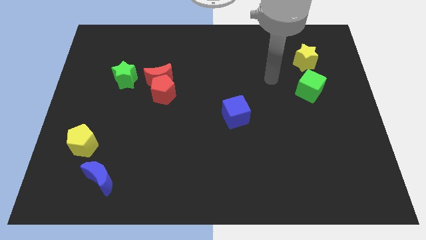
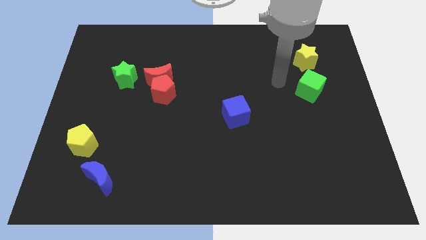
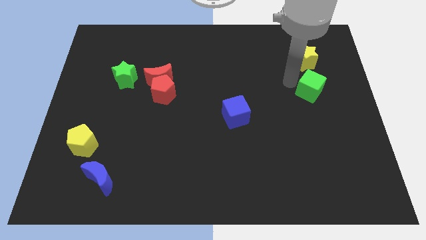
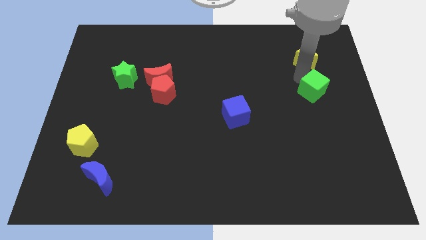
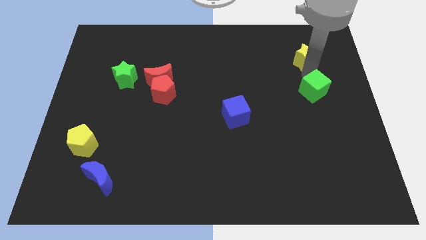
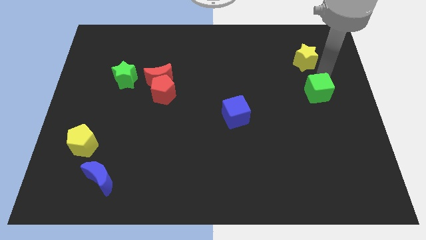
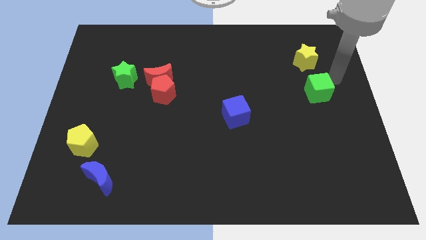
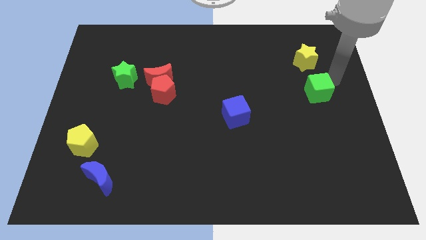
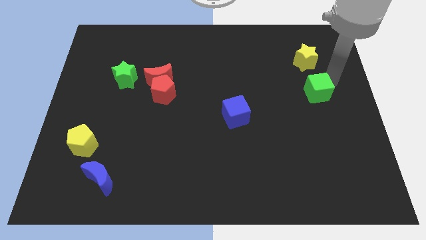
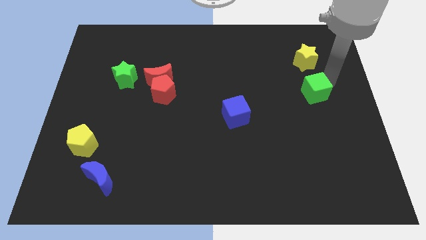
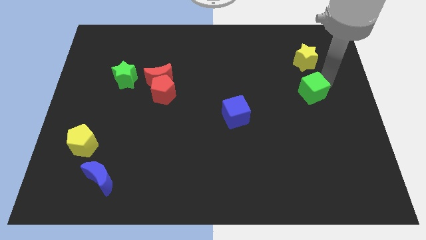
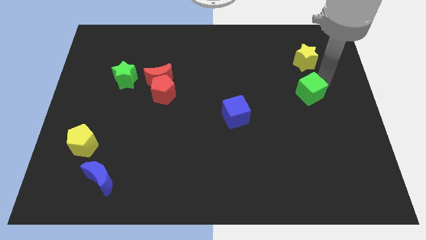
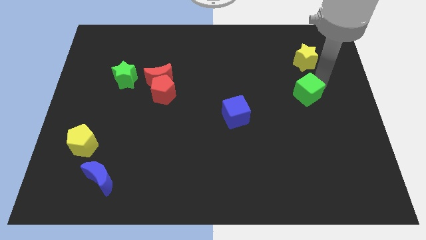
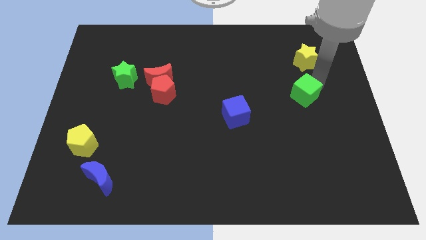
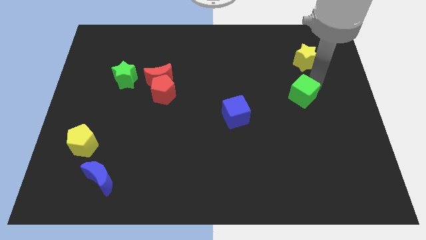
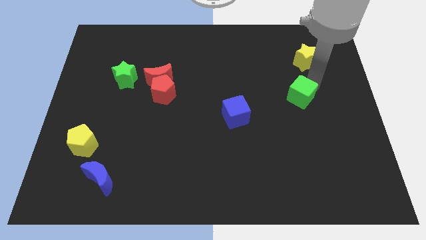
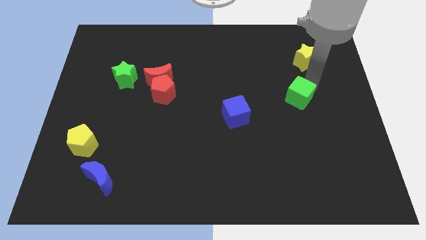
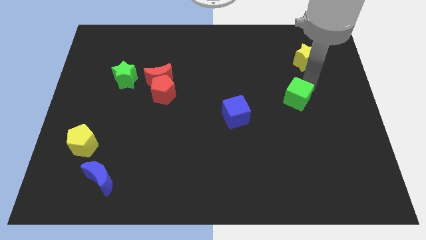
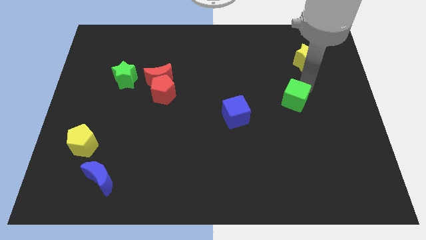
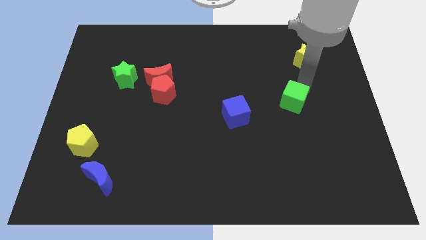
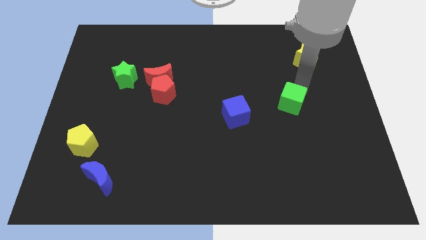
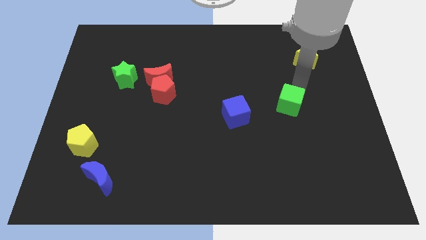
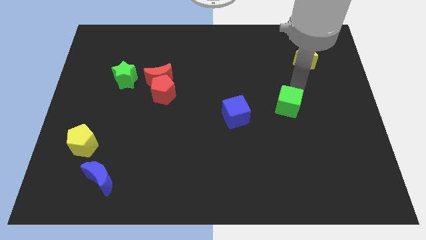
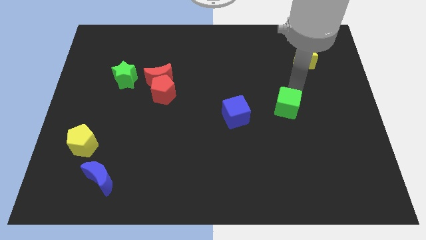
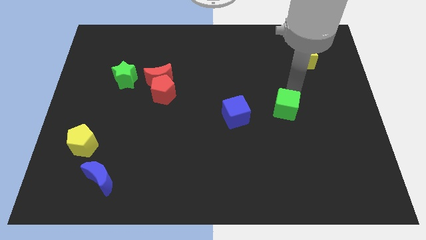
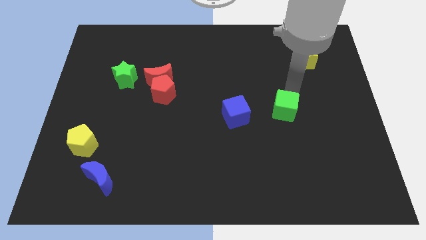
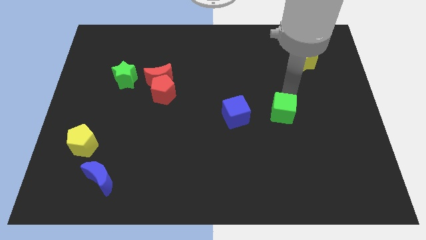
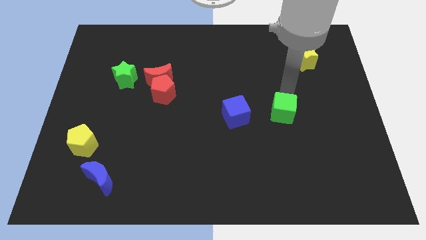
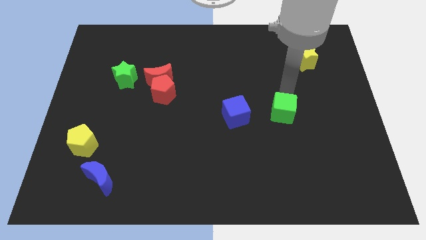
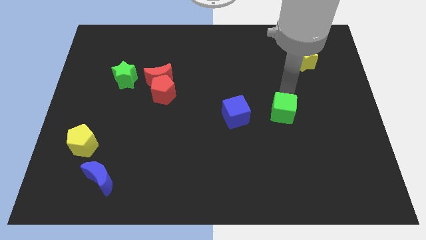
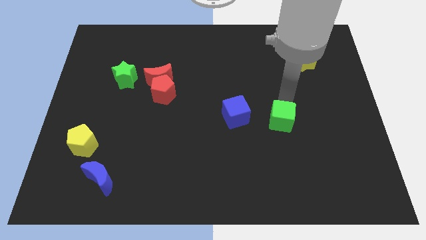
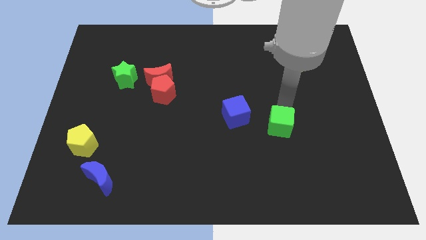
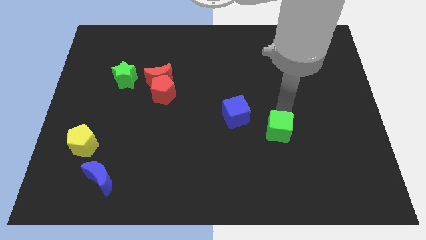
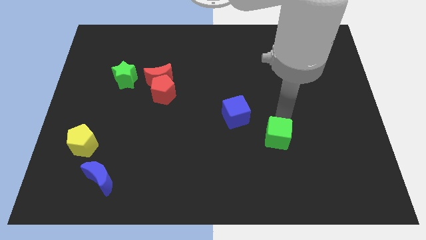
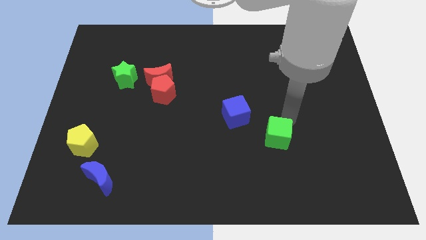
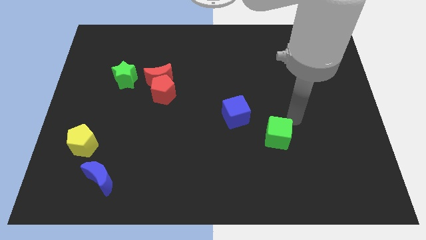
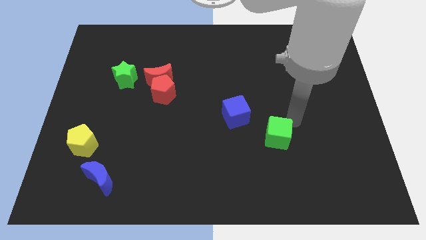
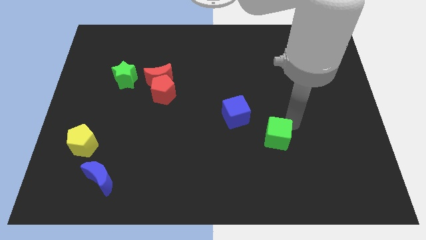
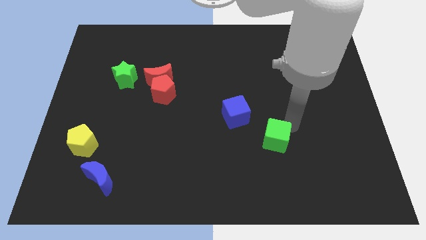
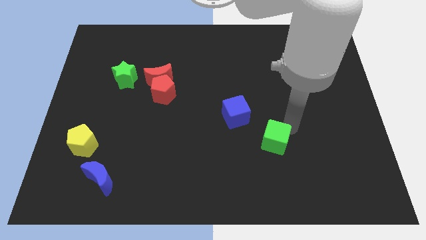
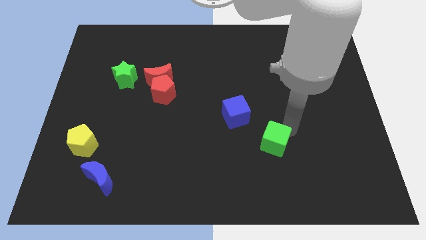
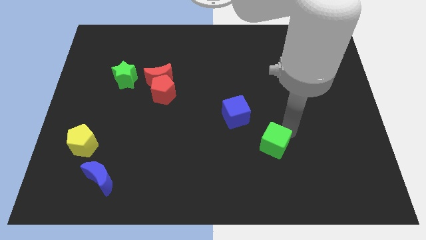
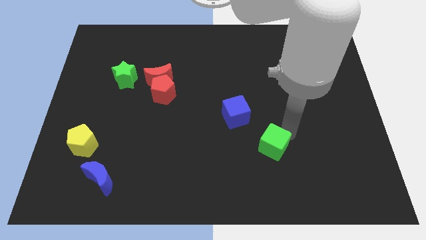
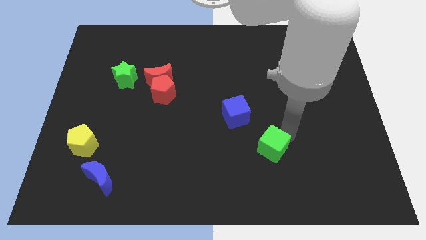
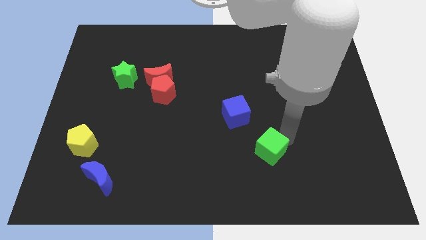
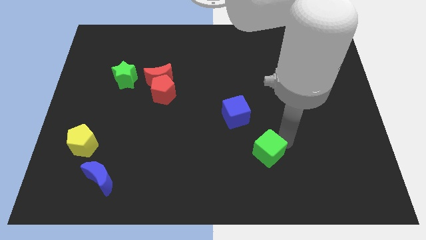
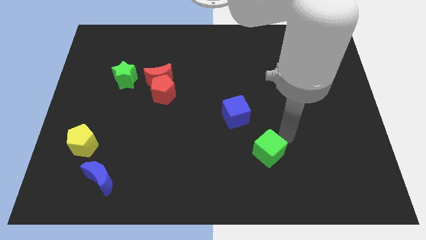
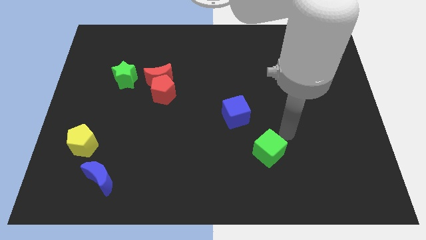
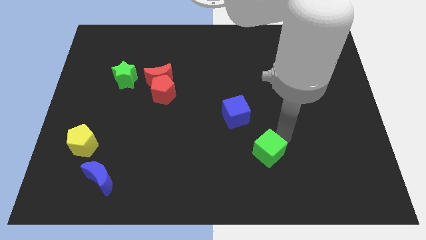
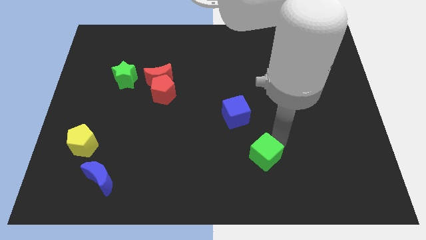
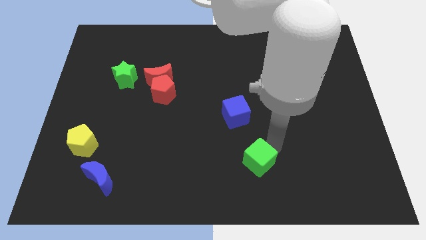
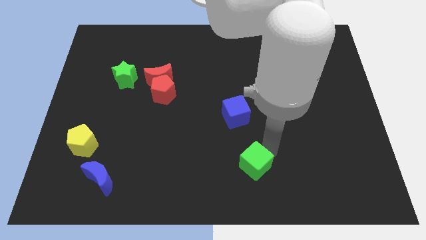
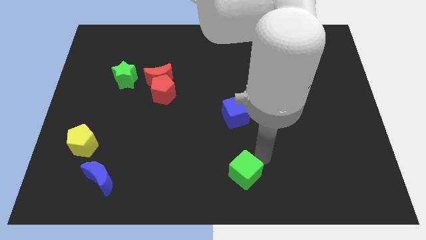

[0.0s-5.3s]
move the green cube to the bottom

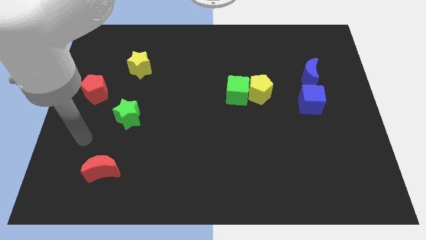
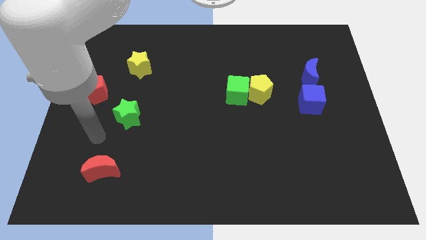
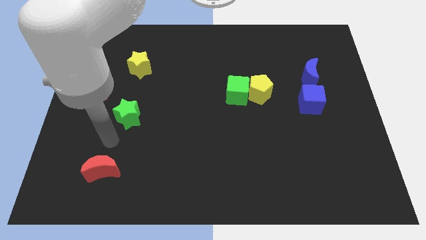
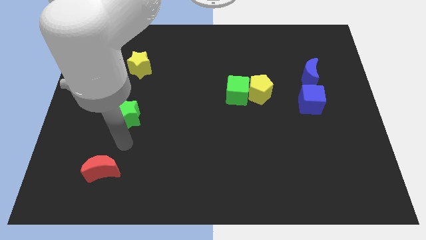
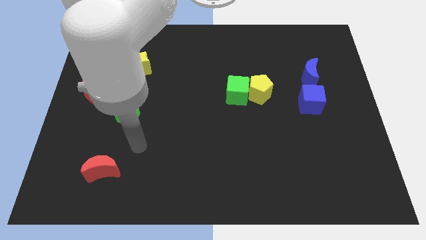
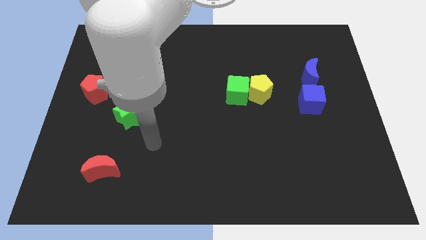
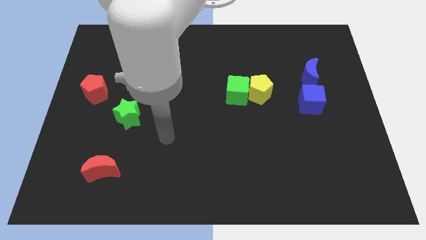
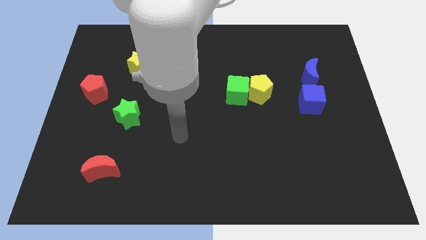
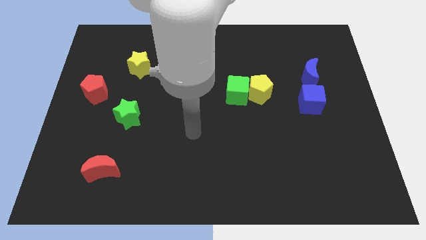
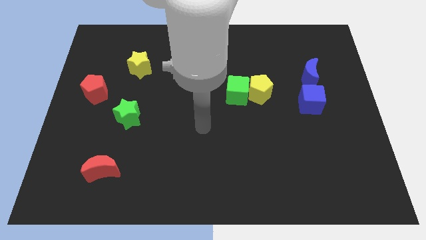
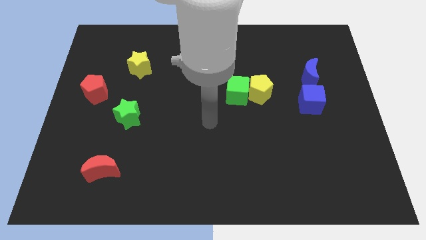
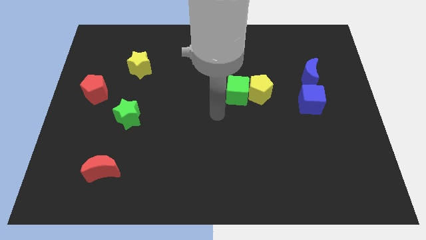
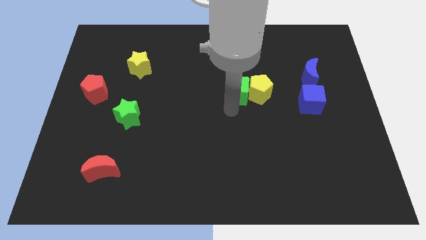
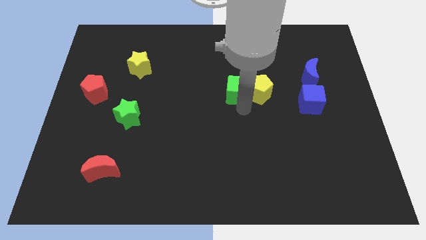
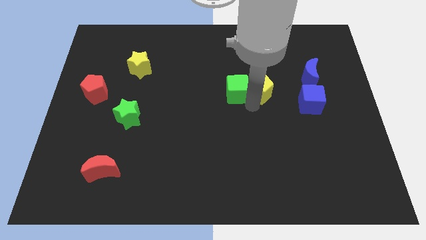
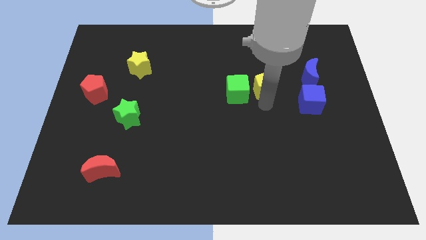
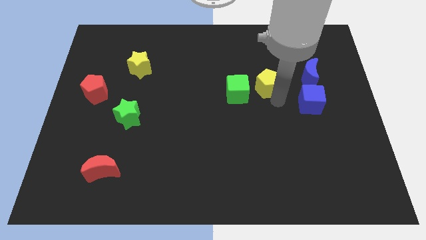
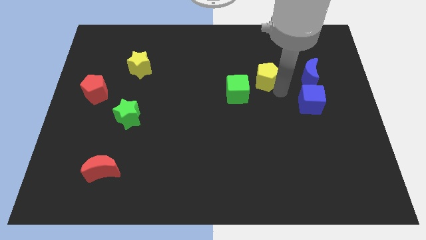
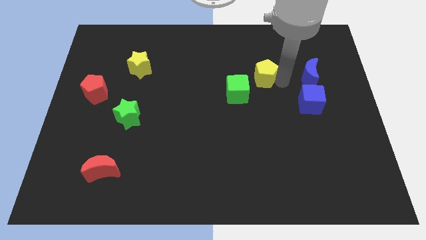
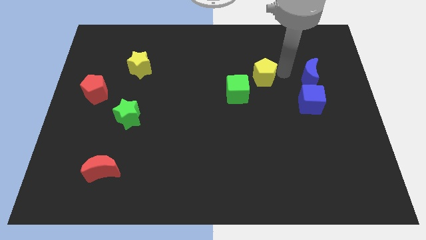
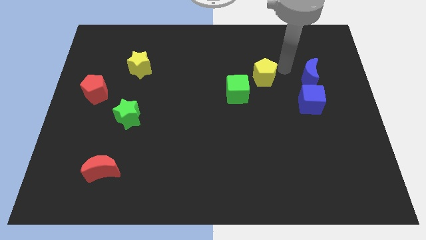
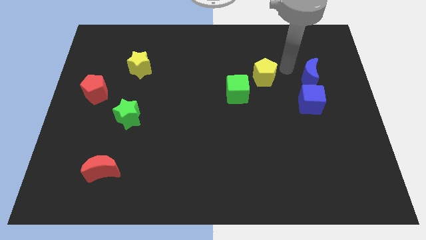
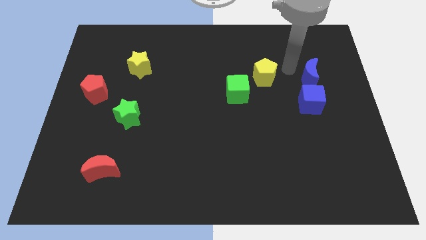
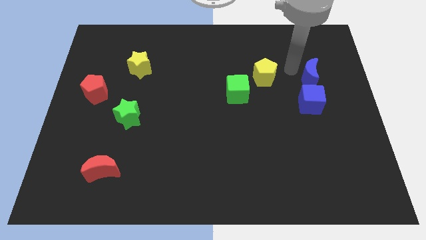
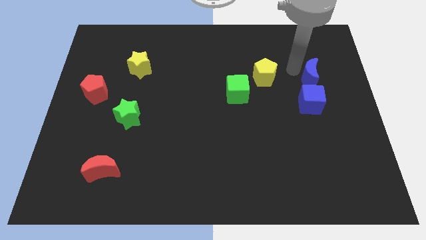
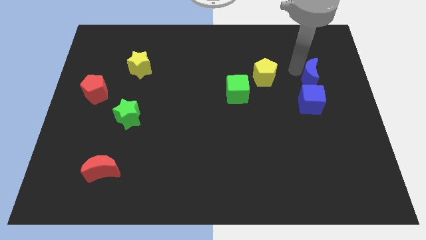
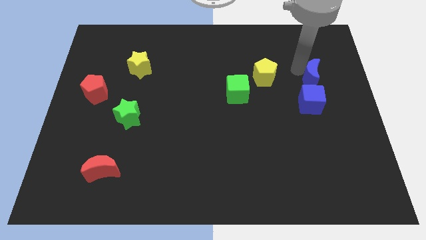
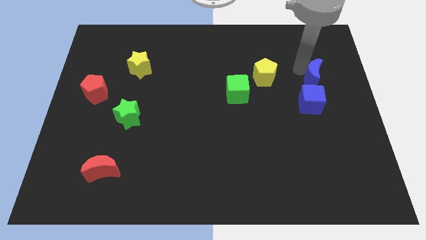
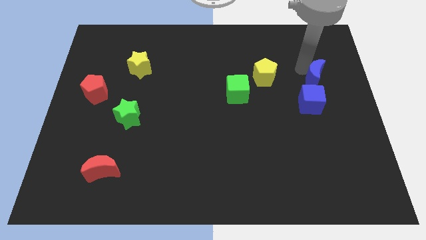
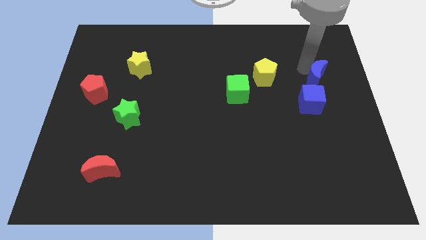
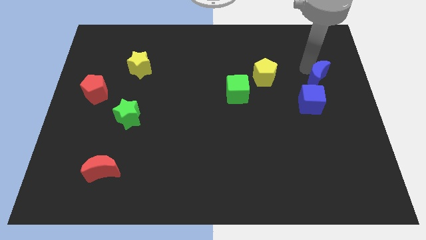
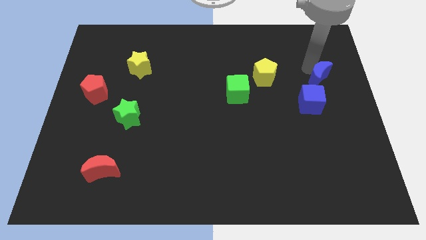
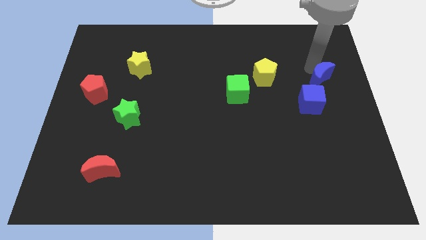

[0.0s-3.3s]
put the blue moon to the center right
